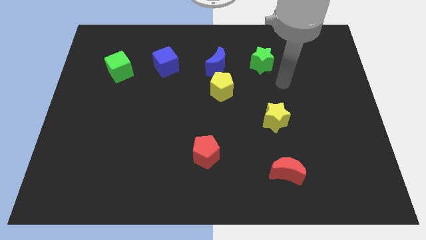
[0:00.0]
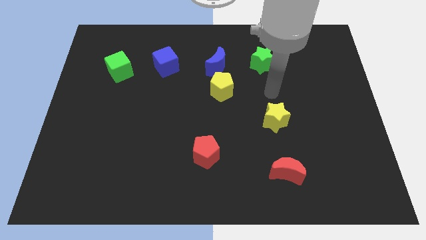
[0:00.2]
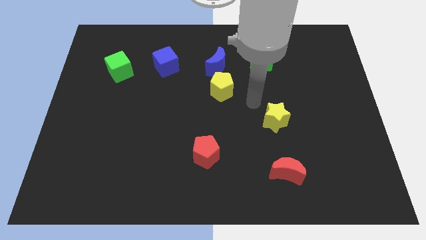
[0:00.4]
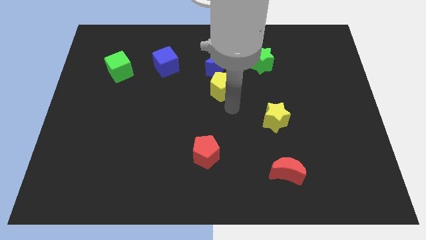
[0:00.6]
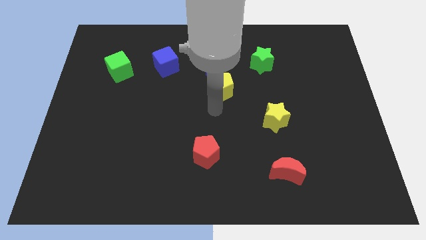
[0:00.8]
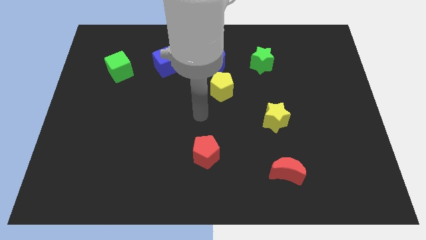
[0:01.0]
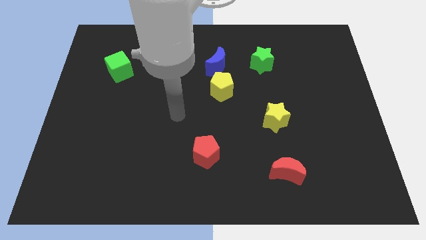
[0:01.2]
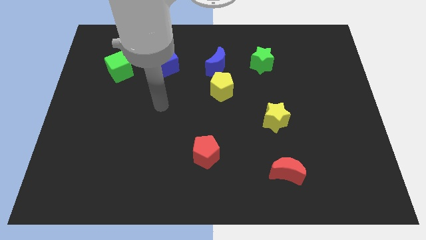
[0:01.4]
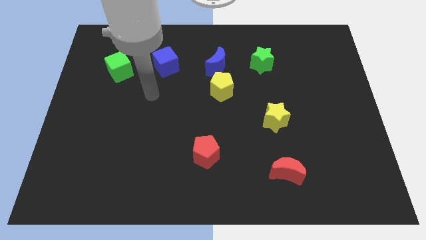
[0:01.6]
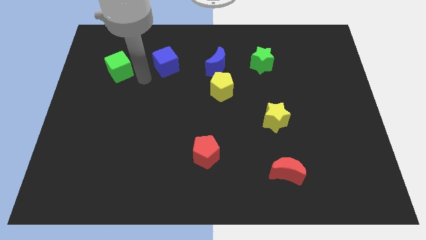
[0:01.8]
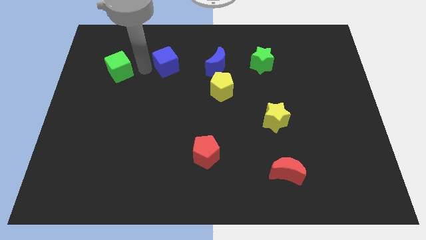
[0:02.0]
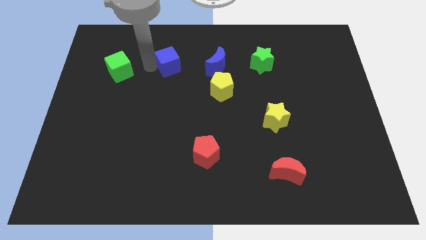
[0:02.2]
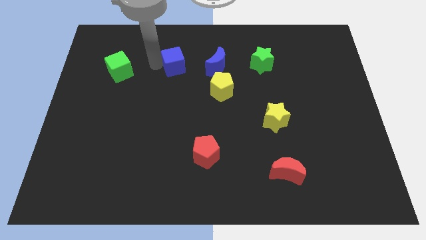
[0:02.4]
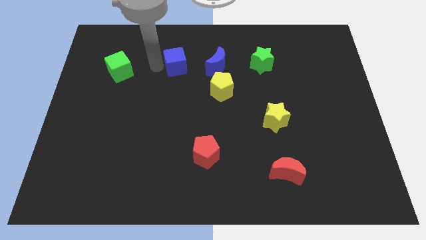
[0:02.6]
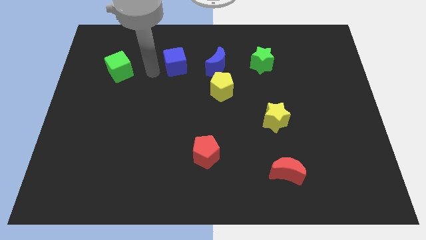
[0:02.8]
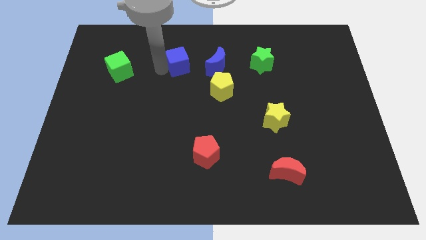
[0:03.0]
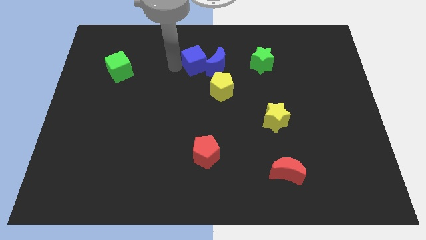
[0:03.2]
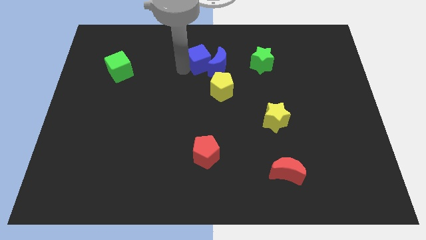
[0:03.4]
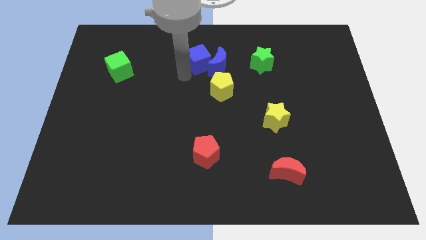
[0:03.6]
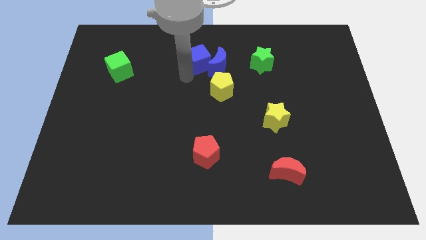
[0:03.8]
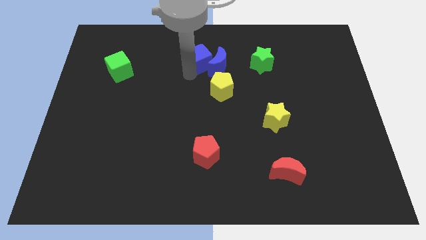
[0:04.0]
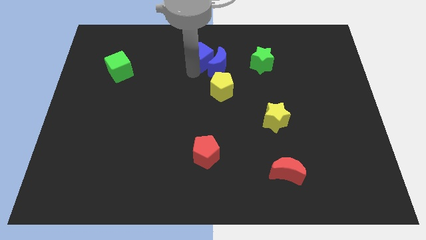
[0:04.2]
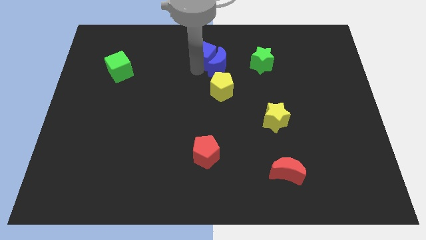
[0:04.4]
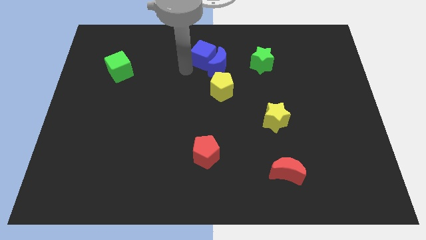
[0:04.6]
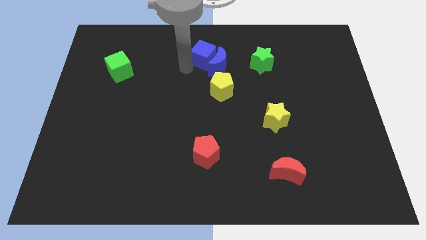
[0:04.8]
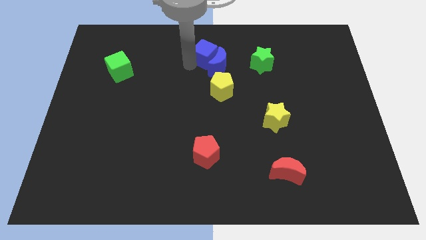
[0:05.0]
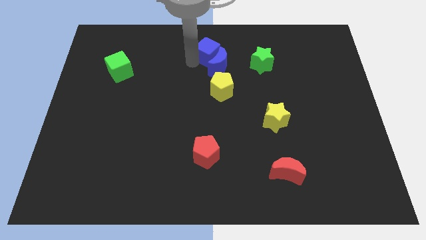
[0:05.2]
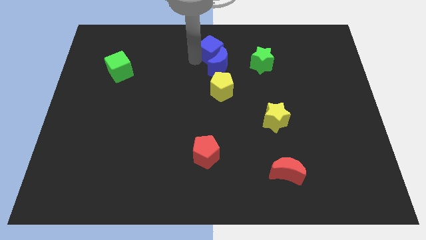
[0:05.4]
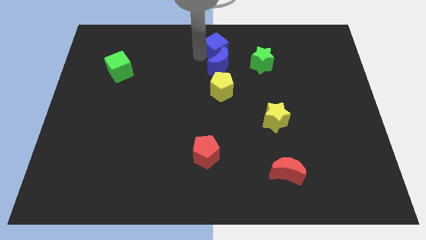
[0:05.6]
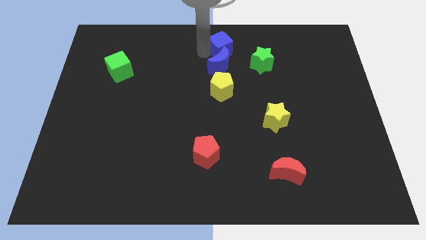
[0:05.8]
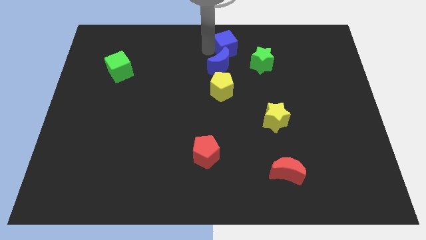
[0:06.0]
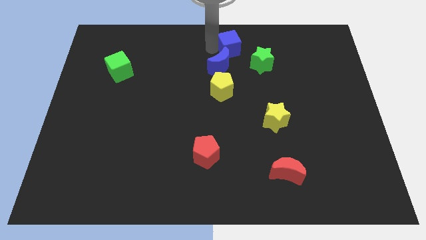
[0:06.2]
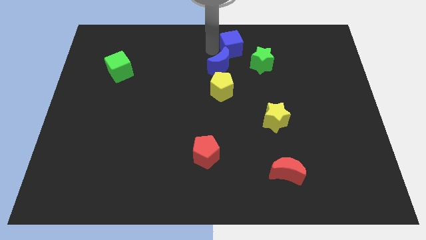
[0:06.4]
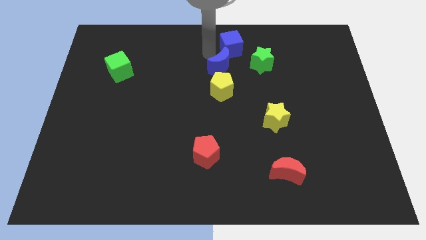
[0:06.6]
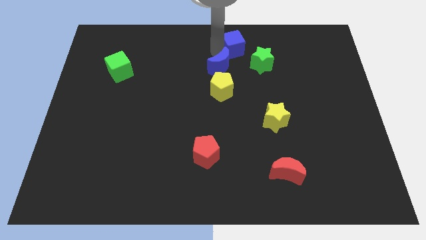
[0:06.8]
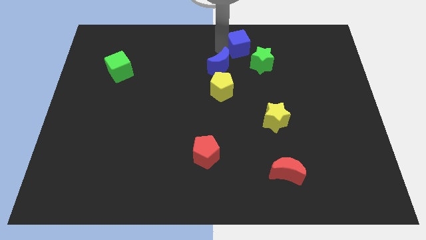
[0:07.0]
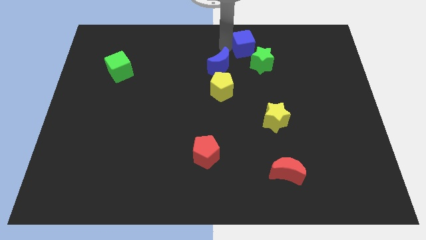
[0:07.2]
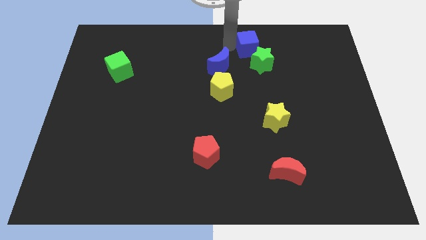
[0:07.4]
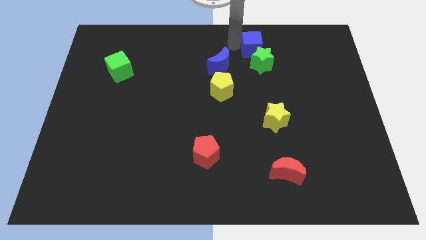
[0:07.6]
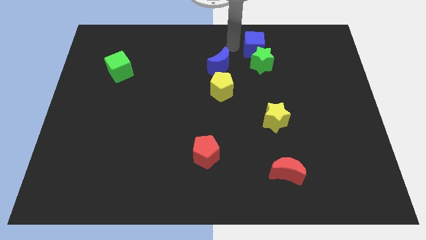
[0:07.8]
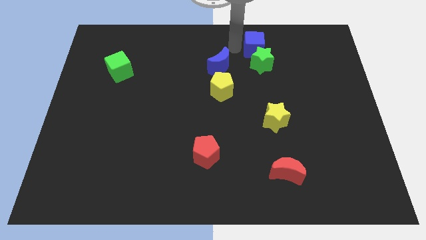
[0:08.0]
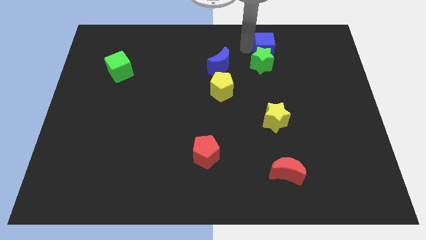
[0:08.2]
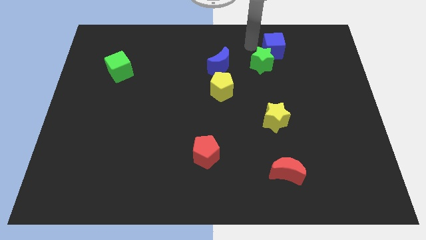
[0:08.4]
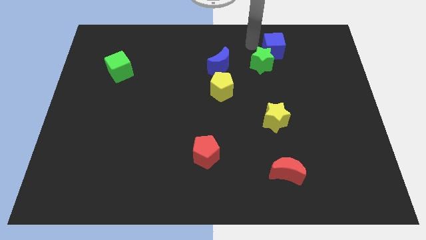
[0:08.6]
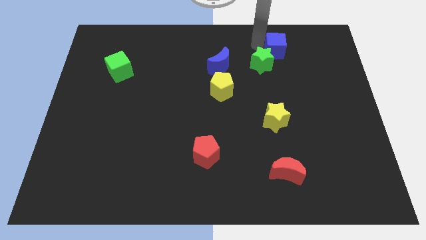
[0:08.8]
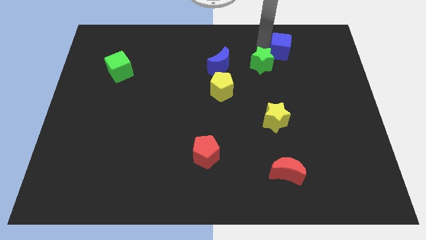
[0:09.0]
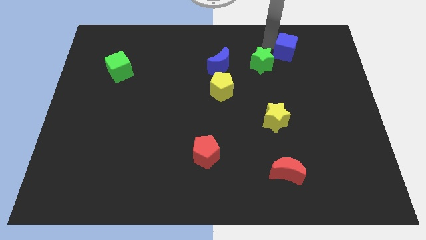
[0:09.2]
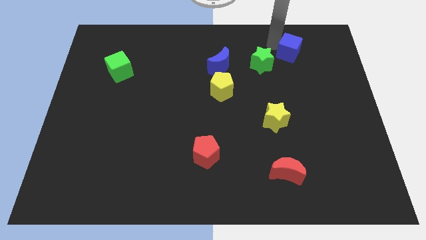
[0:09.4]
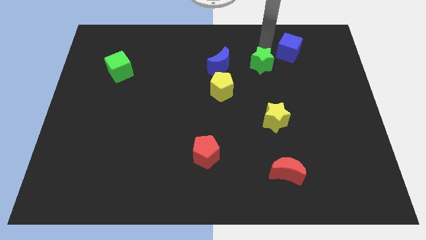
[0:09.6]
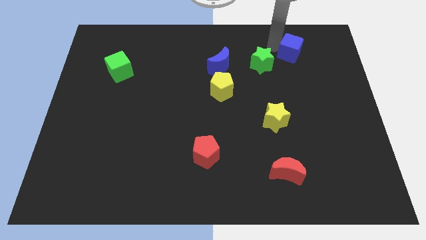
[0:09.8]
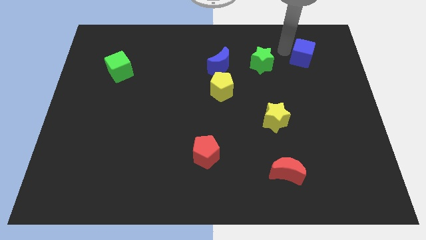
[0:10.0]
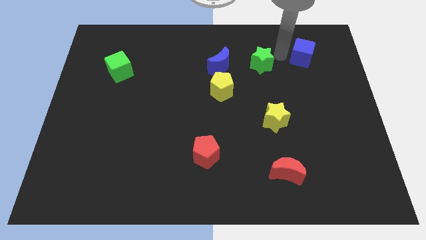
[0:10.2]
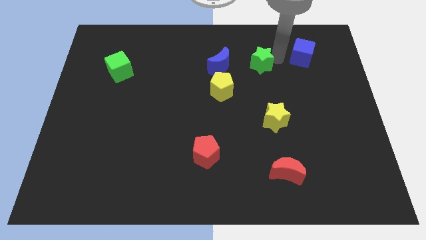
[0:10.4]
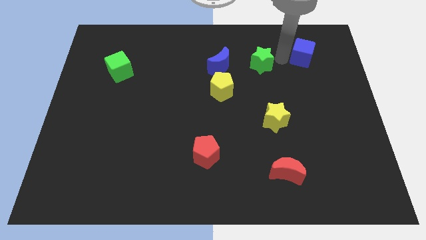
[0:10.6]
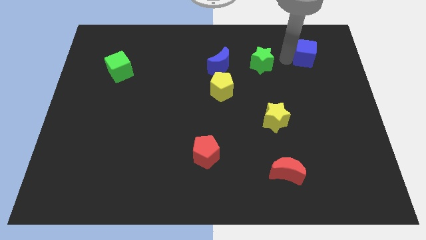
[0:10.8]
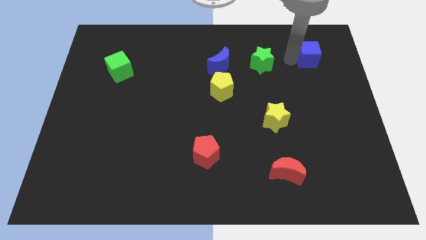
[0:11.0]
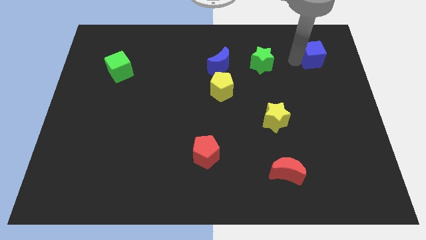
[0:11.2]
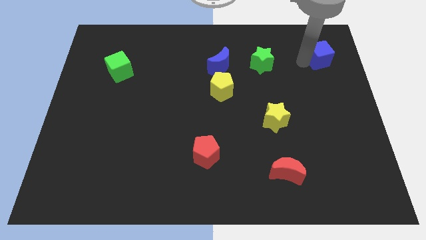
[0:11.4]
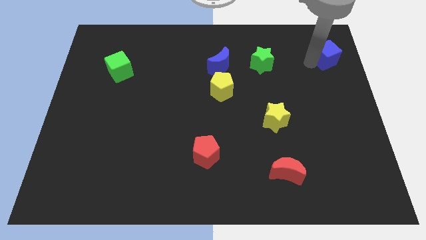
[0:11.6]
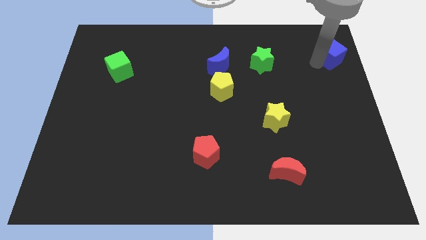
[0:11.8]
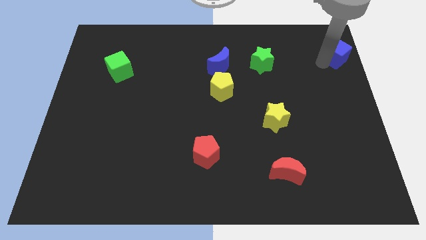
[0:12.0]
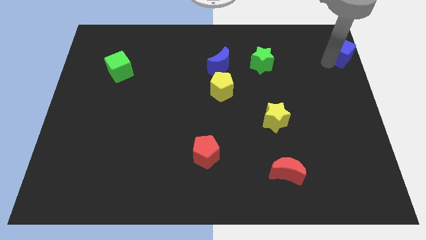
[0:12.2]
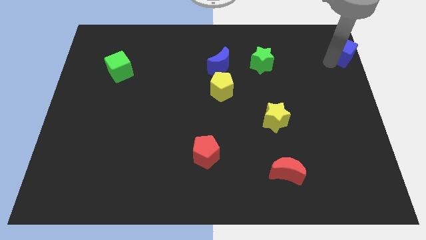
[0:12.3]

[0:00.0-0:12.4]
move the blue cube to the top right corner

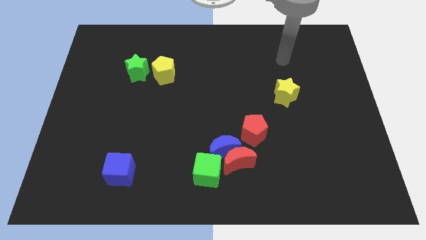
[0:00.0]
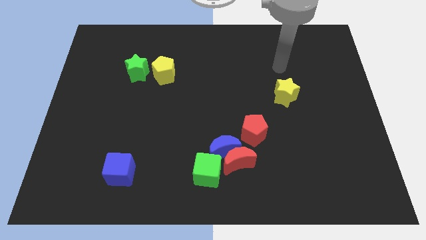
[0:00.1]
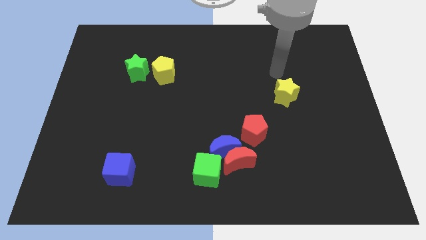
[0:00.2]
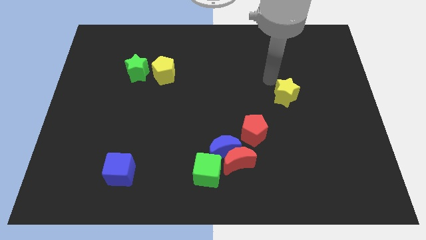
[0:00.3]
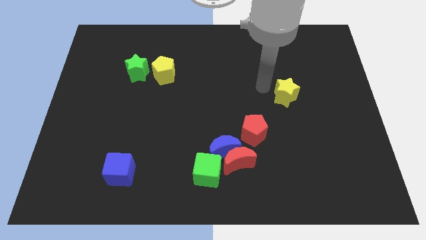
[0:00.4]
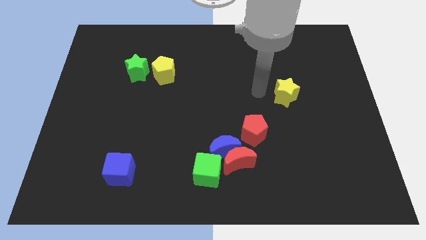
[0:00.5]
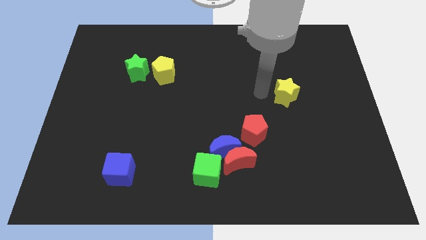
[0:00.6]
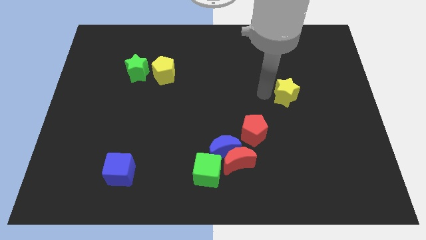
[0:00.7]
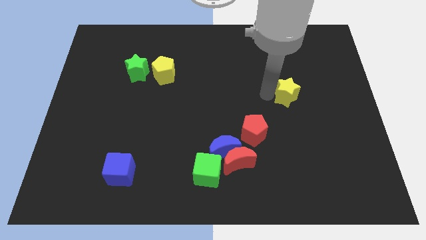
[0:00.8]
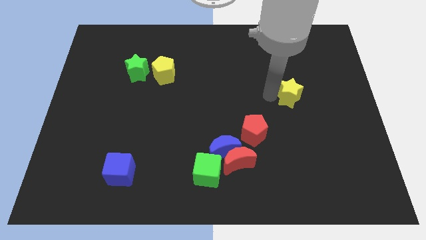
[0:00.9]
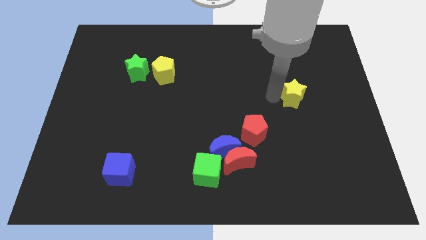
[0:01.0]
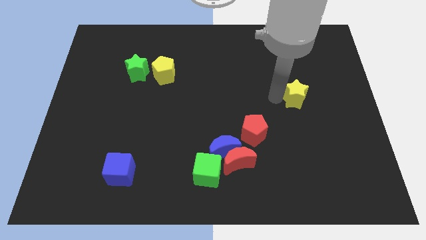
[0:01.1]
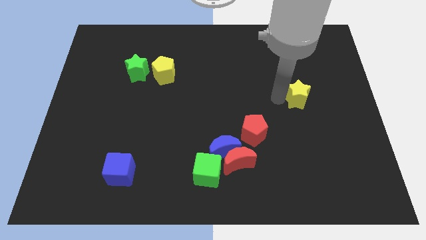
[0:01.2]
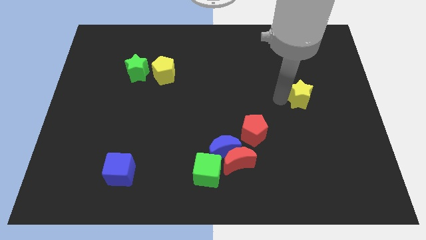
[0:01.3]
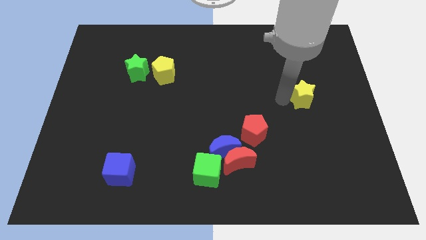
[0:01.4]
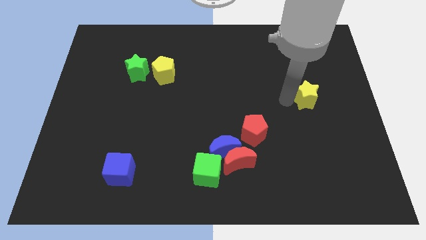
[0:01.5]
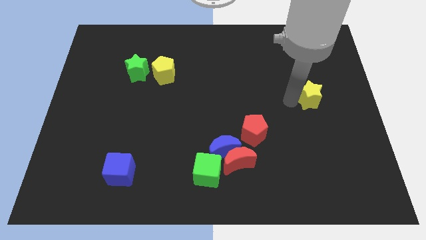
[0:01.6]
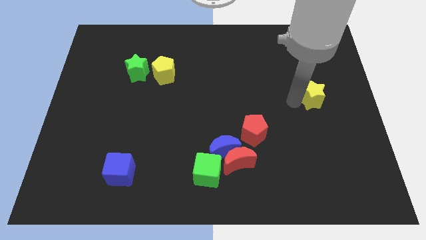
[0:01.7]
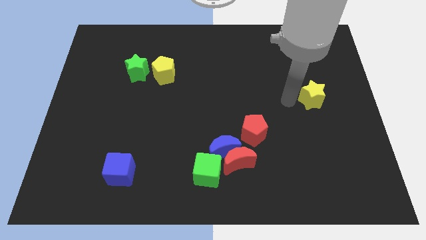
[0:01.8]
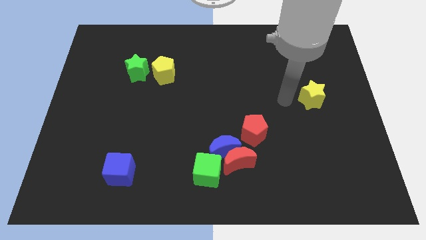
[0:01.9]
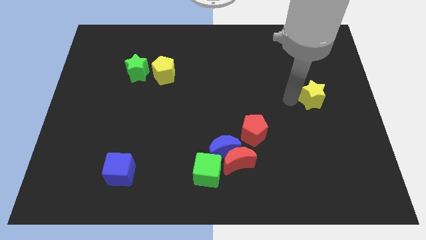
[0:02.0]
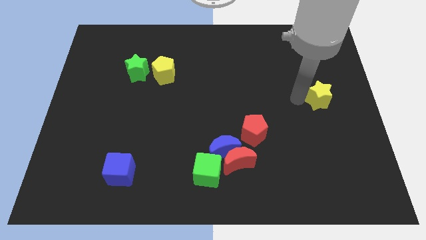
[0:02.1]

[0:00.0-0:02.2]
push the yellow star to the right side of the board
